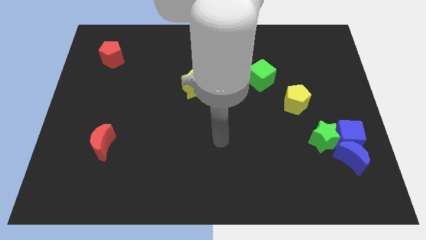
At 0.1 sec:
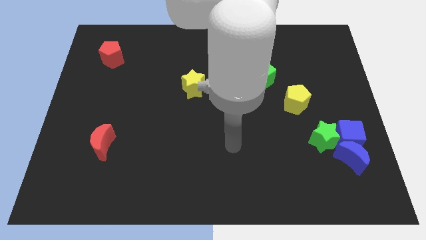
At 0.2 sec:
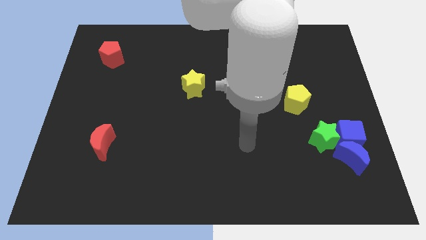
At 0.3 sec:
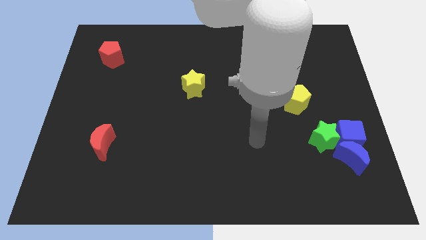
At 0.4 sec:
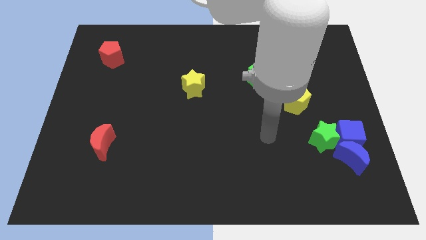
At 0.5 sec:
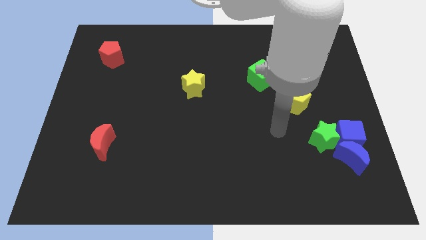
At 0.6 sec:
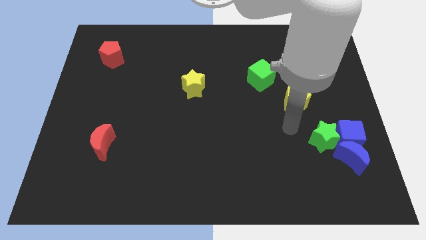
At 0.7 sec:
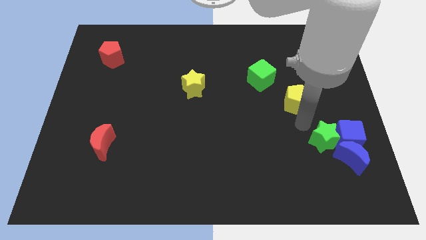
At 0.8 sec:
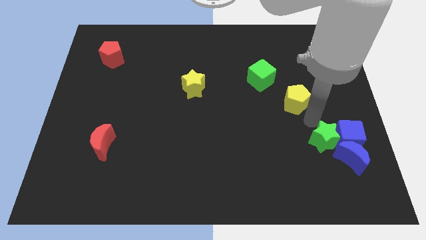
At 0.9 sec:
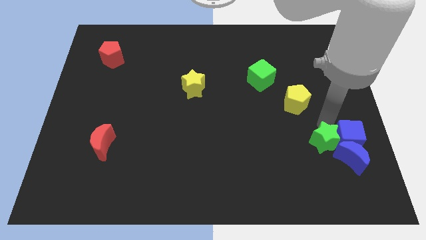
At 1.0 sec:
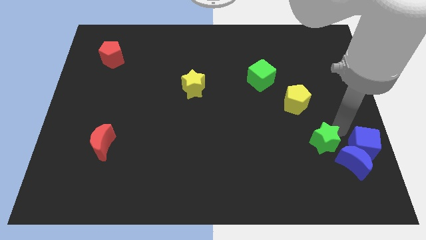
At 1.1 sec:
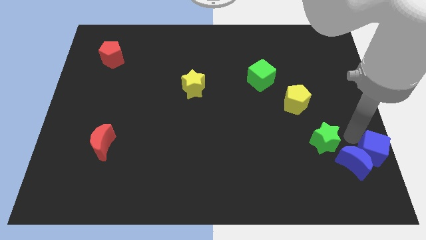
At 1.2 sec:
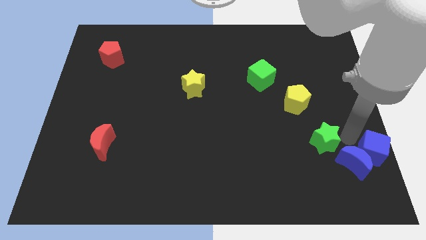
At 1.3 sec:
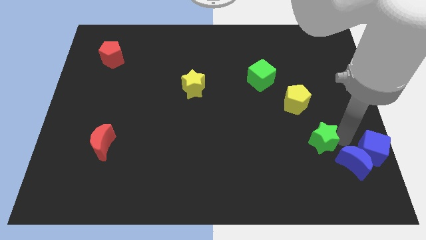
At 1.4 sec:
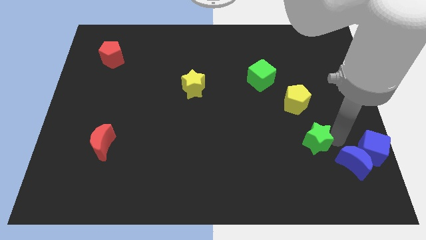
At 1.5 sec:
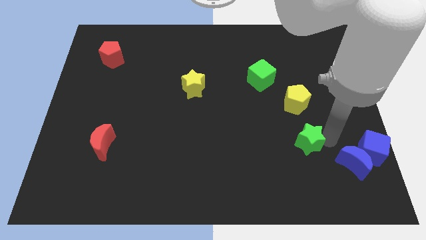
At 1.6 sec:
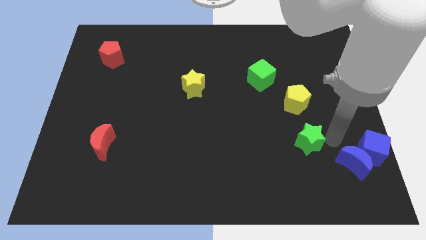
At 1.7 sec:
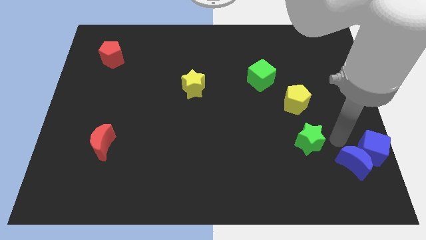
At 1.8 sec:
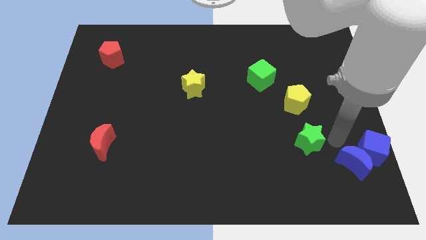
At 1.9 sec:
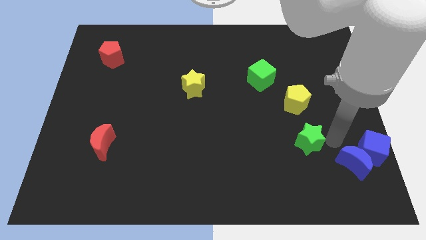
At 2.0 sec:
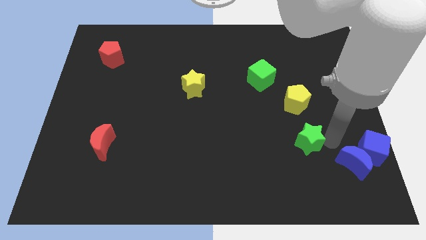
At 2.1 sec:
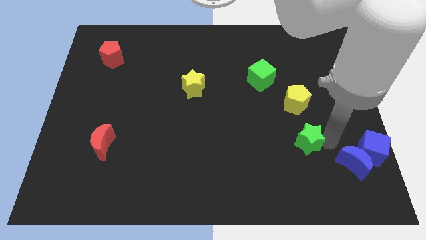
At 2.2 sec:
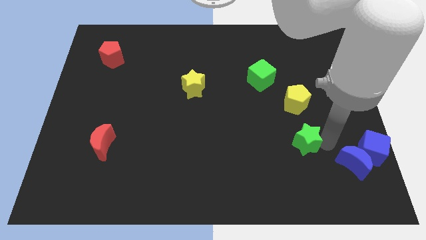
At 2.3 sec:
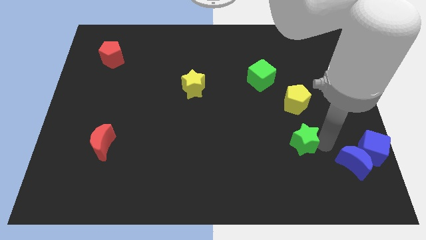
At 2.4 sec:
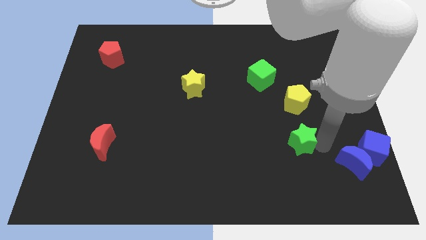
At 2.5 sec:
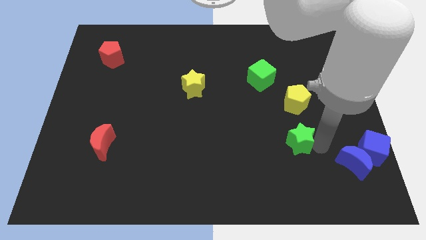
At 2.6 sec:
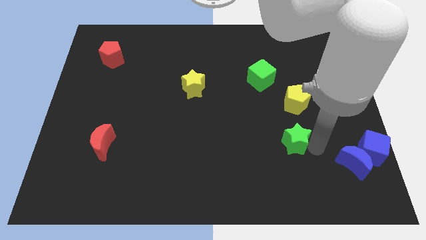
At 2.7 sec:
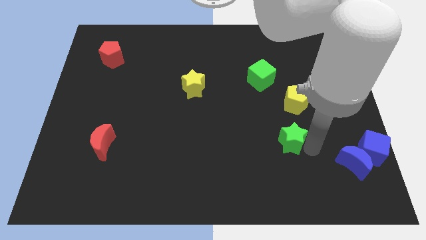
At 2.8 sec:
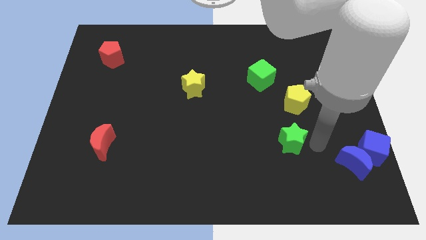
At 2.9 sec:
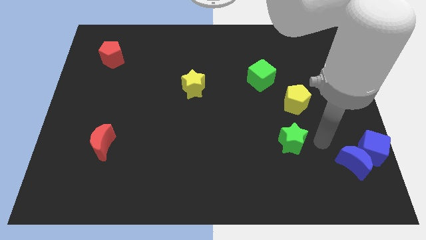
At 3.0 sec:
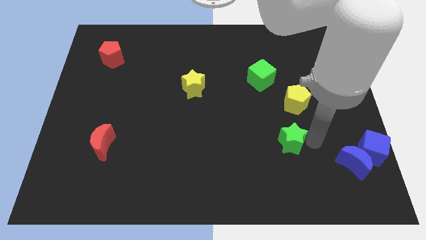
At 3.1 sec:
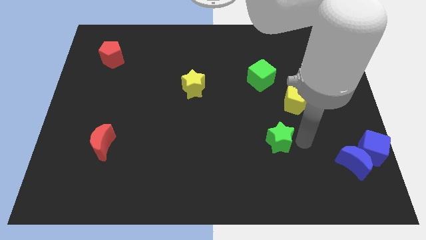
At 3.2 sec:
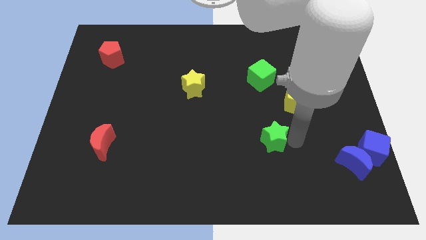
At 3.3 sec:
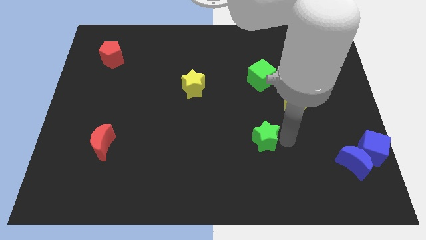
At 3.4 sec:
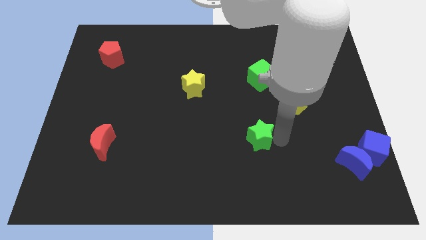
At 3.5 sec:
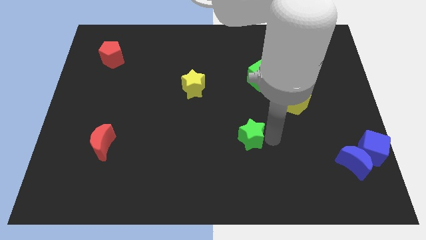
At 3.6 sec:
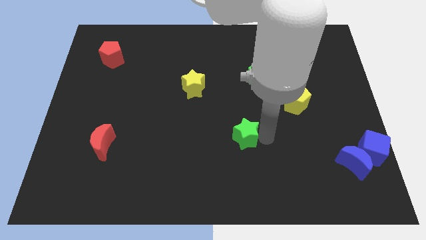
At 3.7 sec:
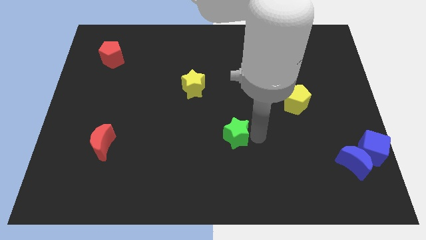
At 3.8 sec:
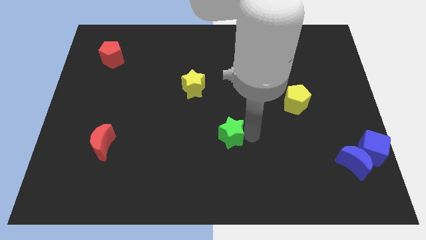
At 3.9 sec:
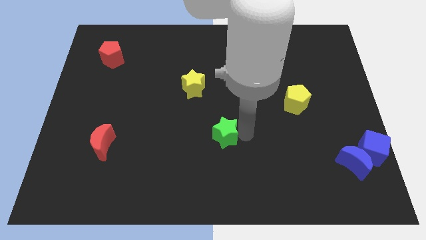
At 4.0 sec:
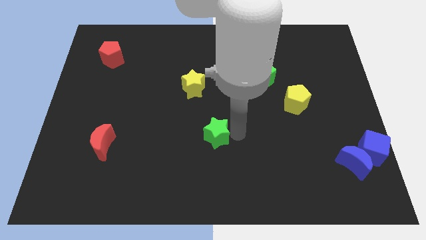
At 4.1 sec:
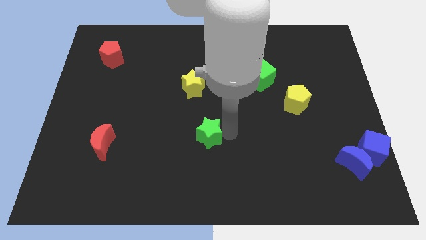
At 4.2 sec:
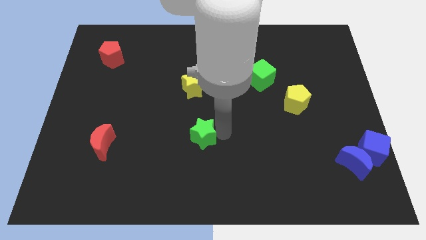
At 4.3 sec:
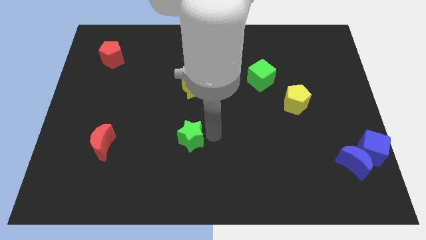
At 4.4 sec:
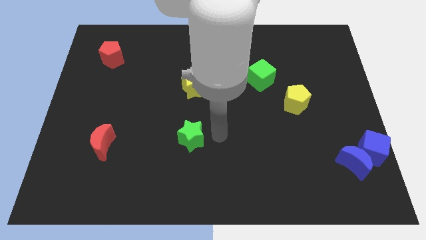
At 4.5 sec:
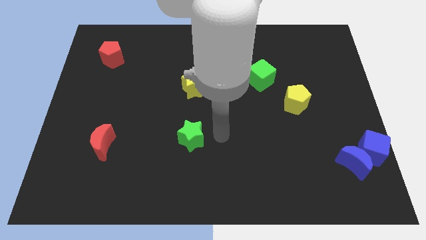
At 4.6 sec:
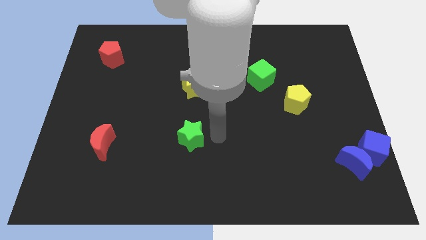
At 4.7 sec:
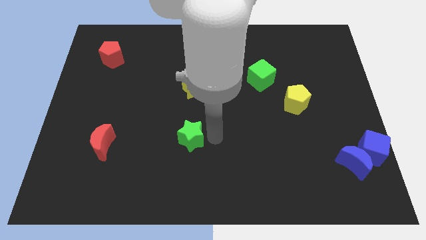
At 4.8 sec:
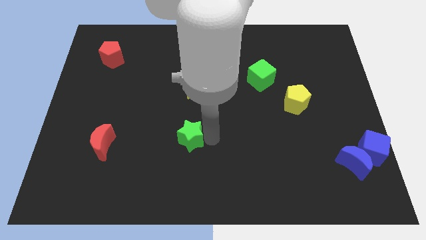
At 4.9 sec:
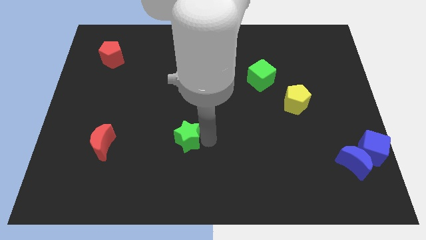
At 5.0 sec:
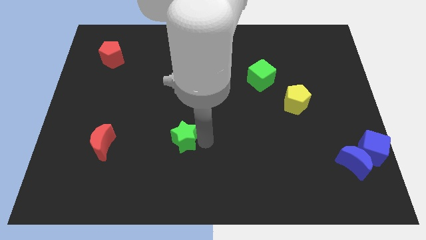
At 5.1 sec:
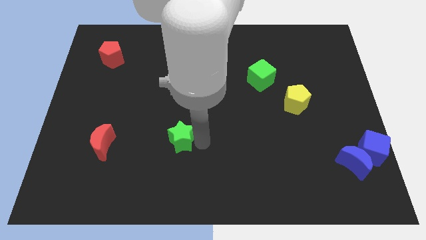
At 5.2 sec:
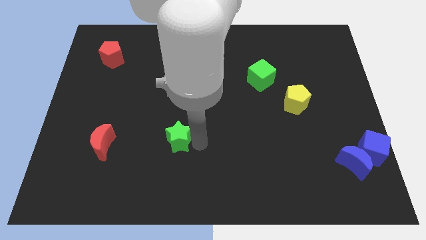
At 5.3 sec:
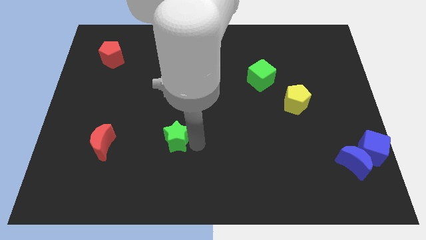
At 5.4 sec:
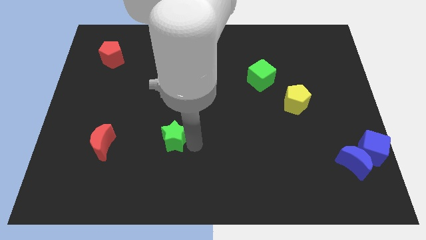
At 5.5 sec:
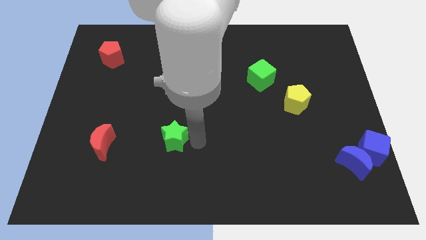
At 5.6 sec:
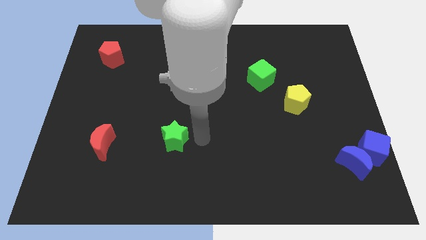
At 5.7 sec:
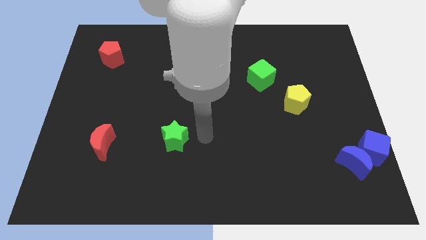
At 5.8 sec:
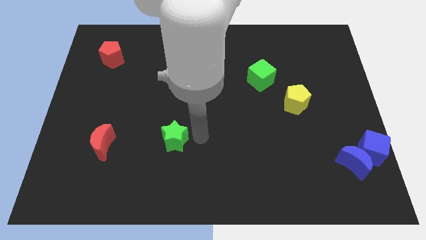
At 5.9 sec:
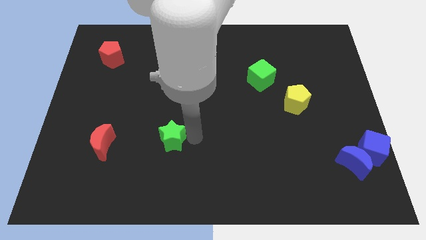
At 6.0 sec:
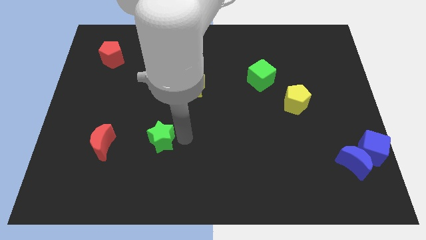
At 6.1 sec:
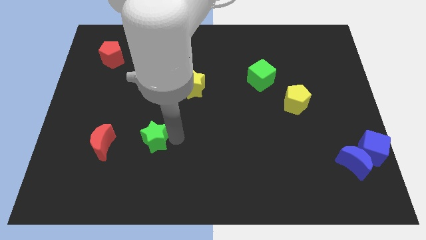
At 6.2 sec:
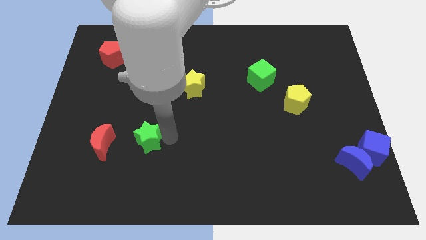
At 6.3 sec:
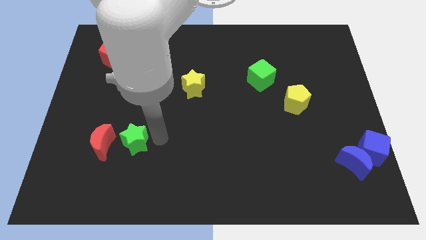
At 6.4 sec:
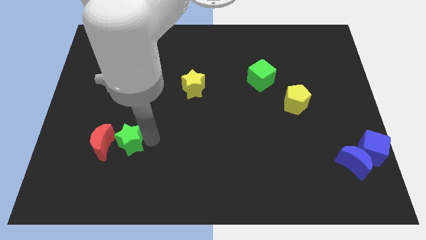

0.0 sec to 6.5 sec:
move the green star towards the red moon
